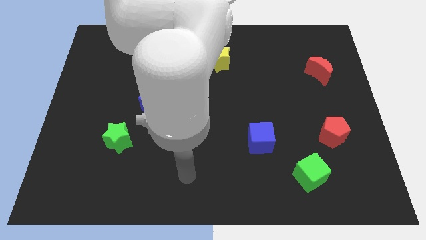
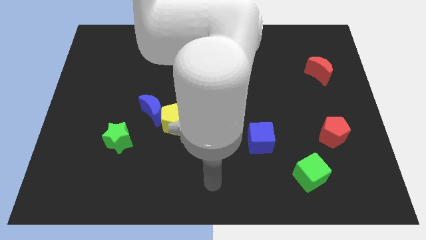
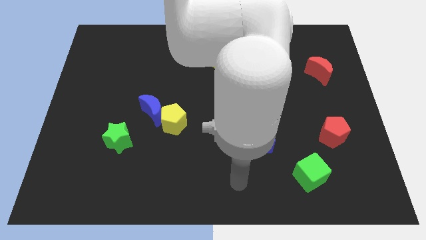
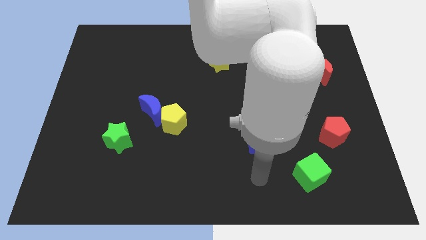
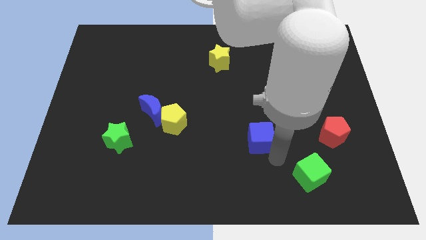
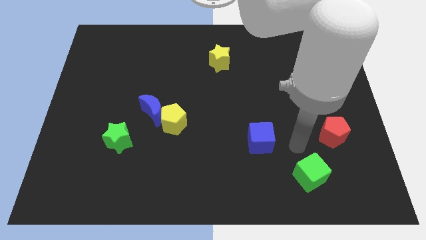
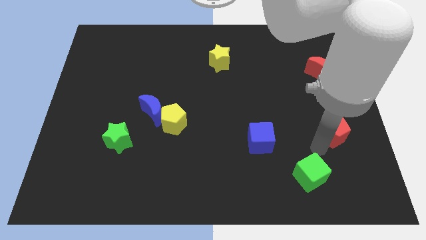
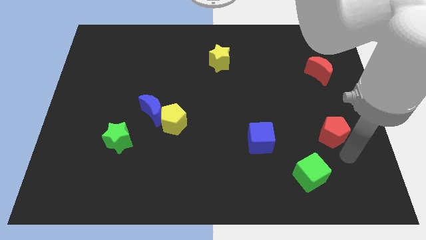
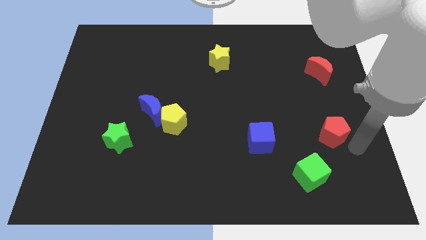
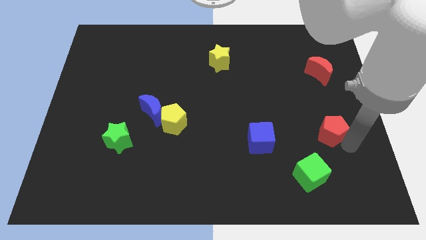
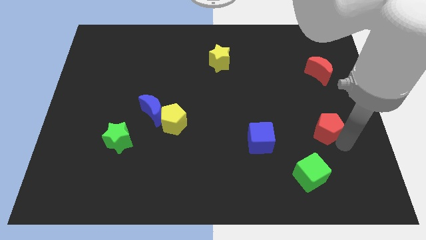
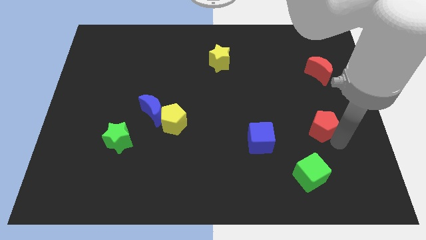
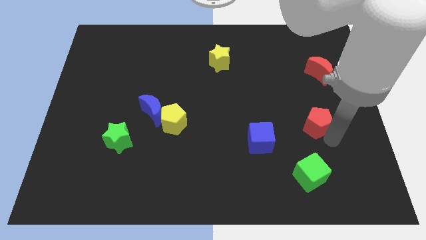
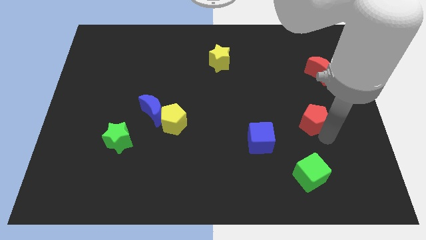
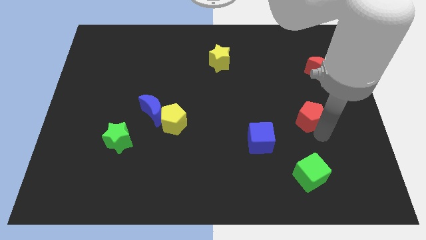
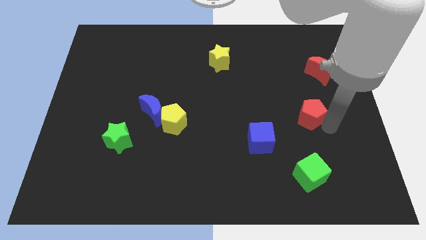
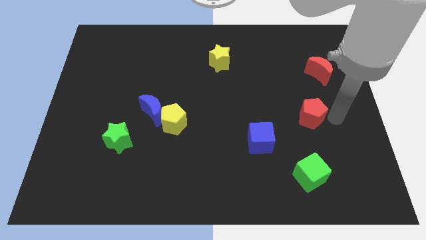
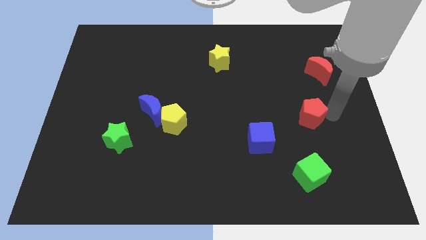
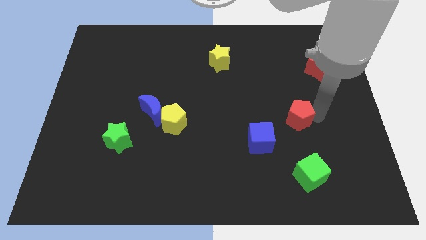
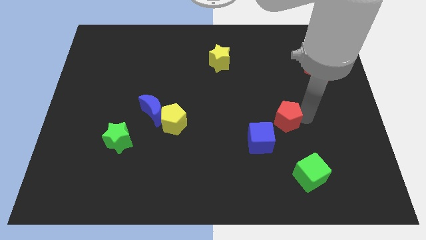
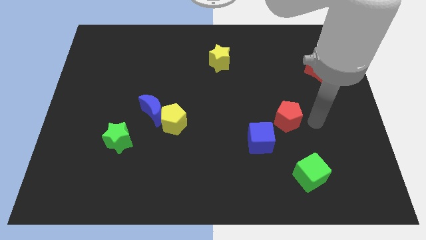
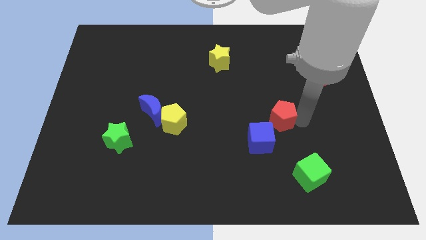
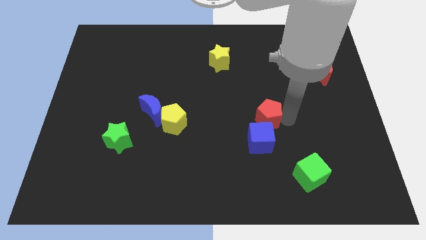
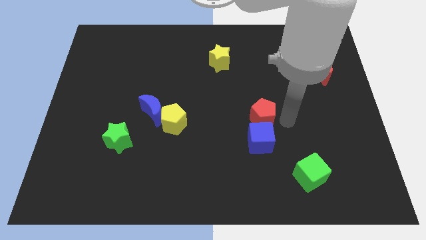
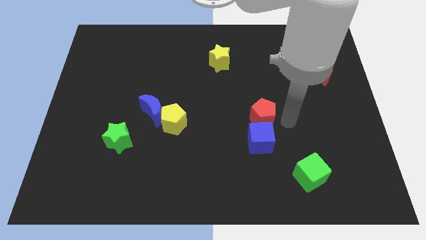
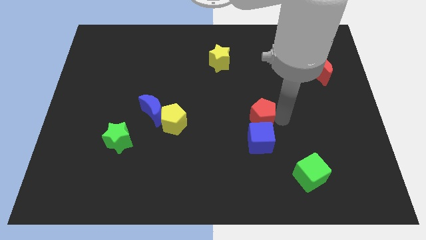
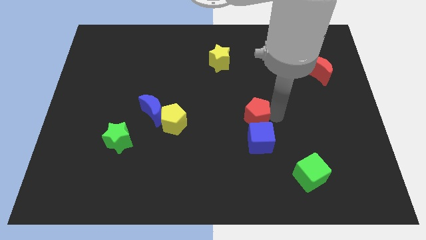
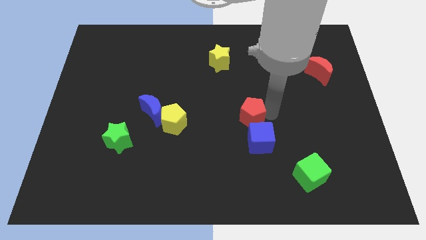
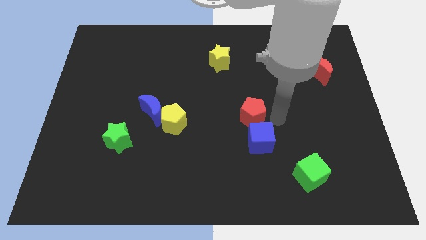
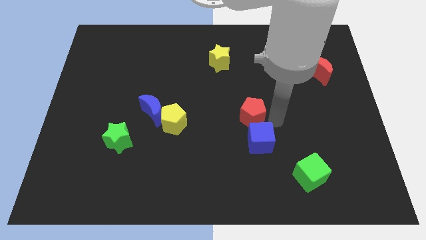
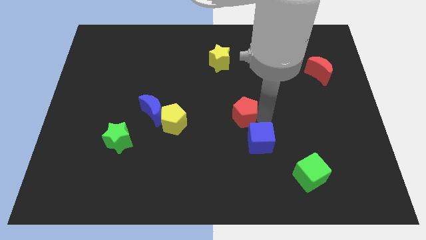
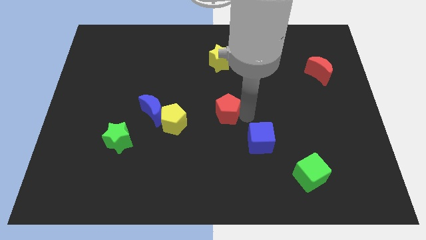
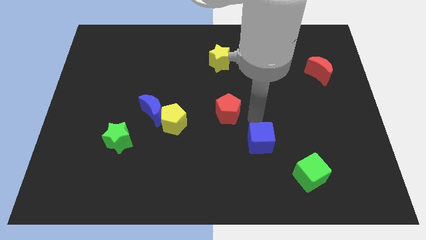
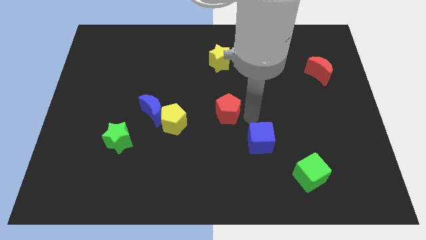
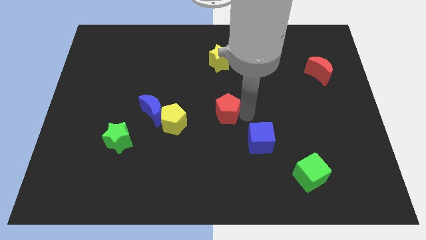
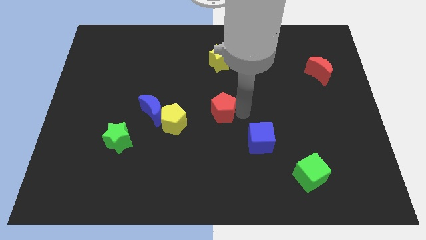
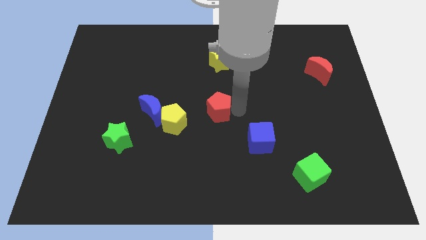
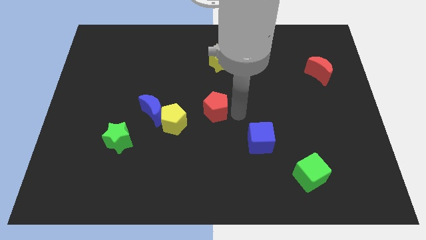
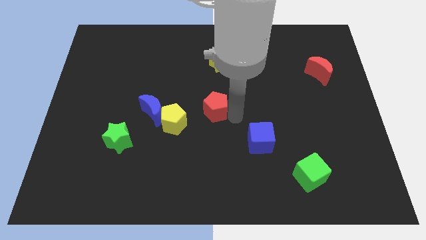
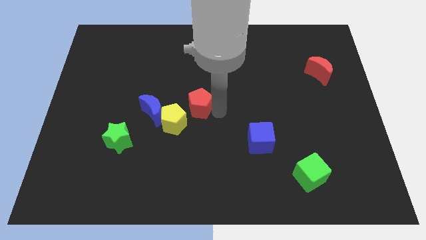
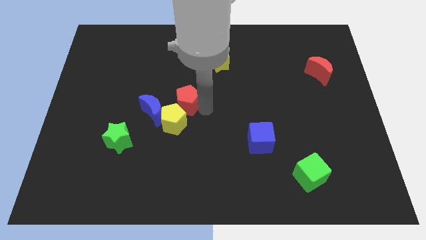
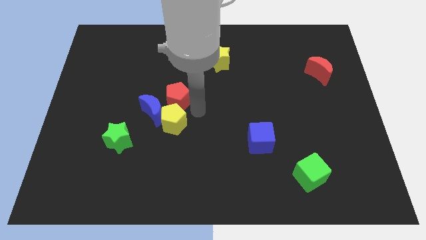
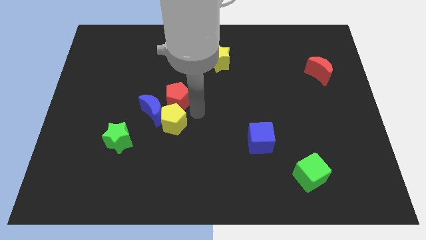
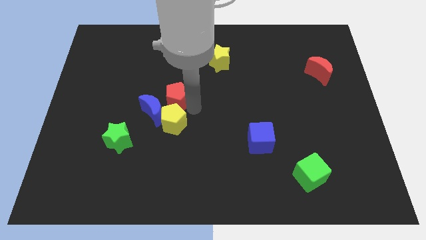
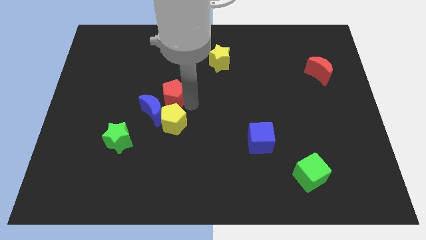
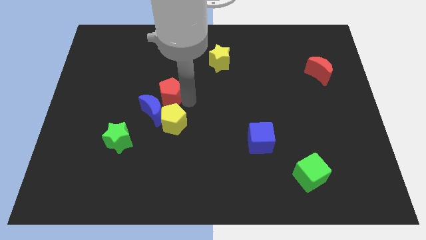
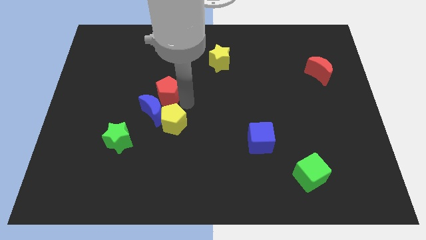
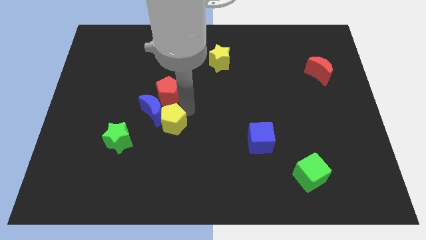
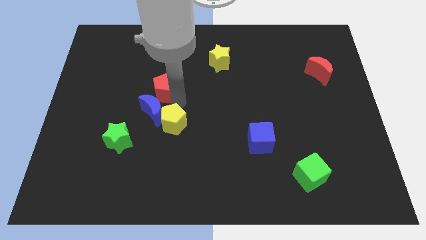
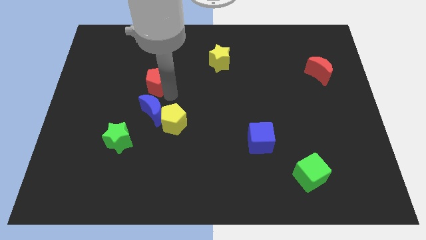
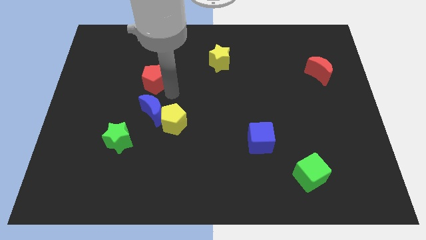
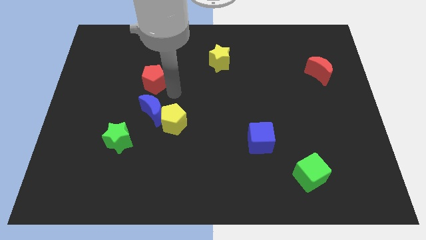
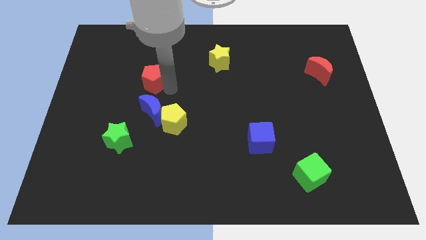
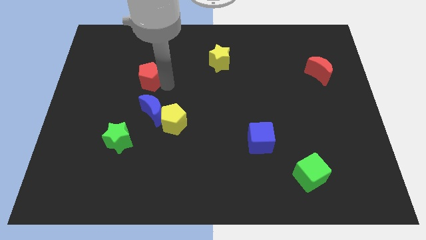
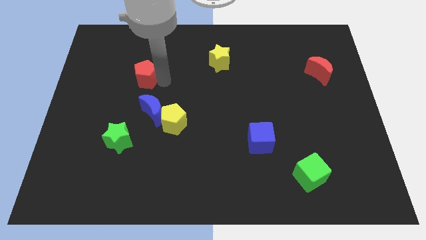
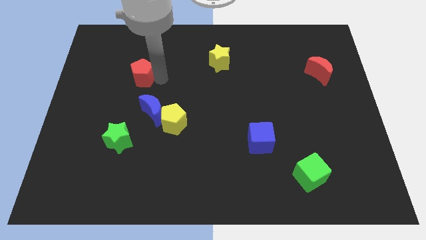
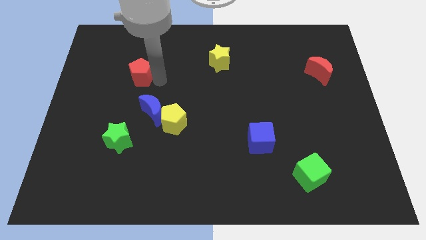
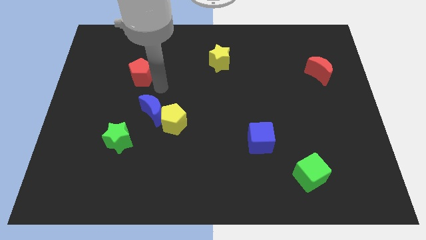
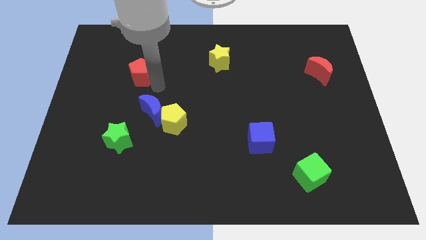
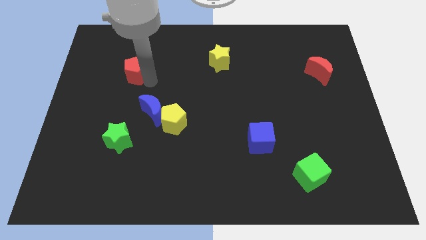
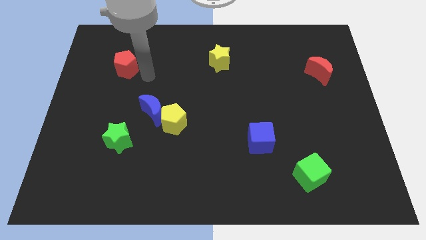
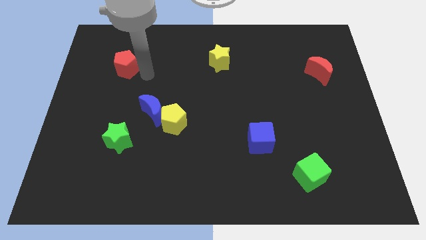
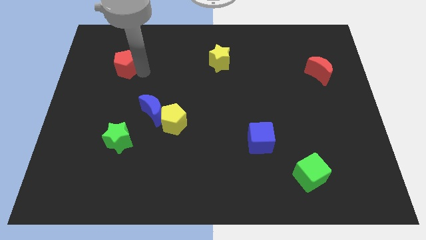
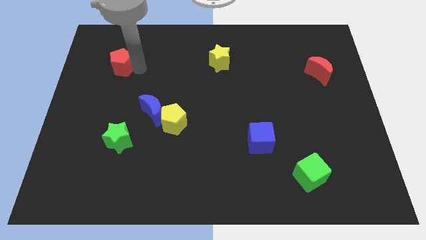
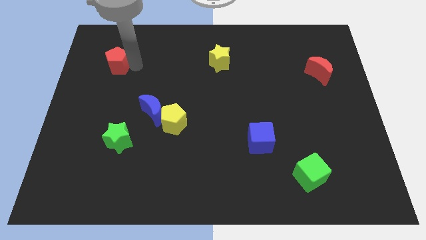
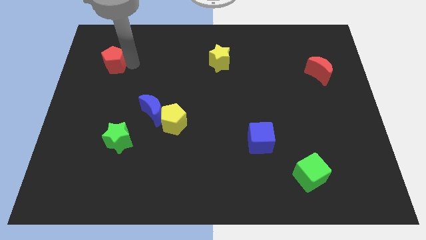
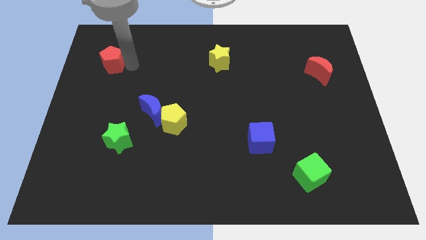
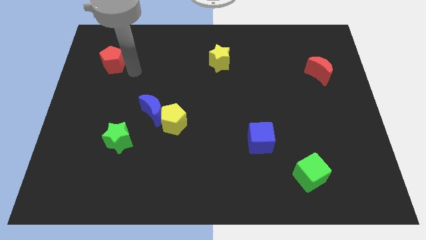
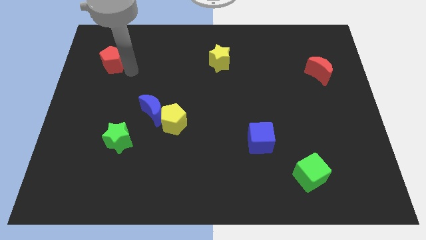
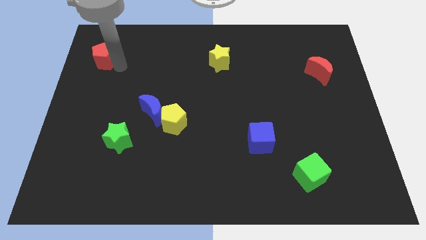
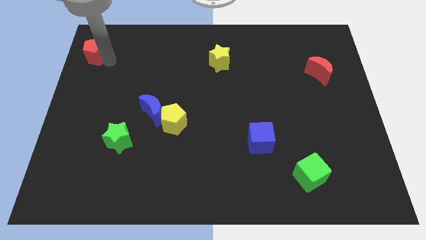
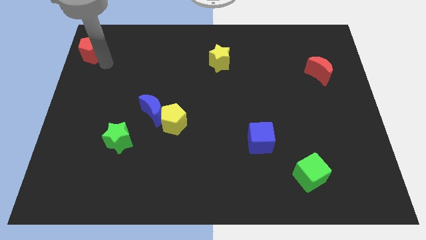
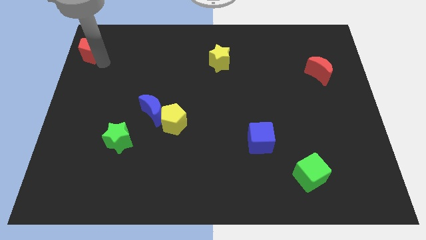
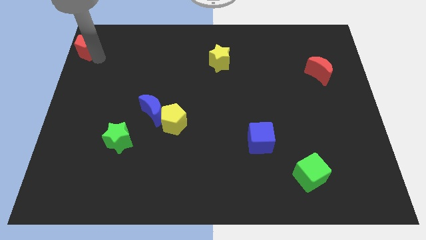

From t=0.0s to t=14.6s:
move the red pentagon to the top left
